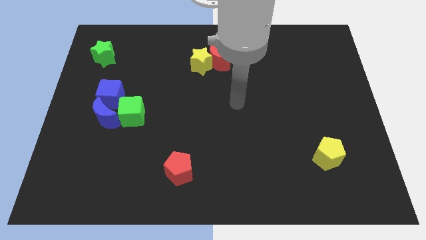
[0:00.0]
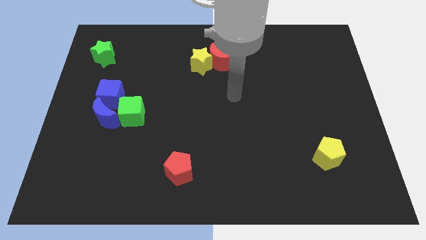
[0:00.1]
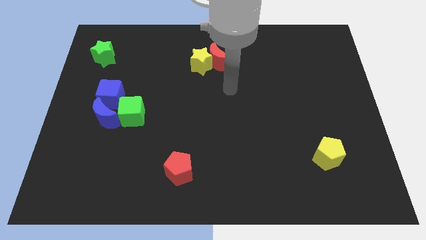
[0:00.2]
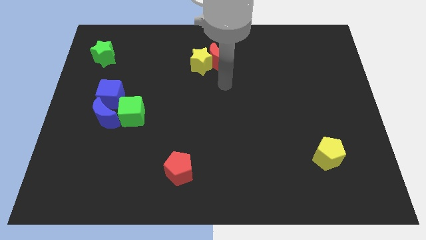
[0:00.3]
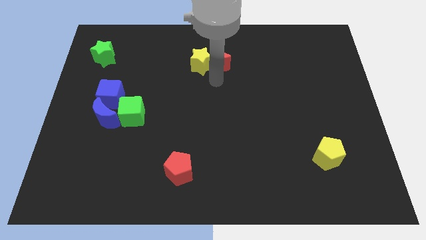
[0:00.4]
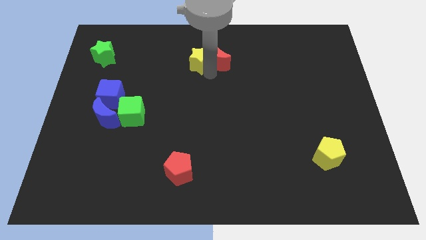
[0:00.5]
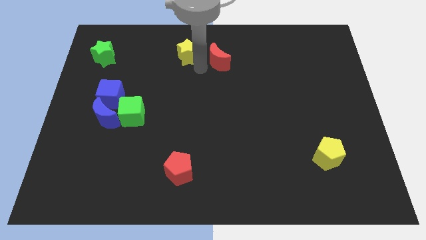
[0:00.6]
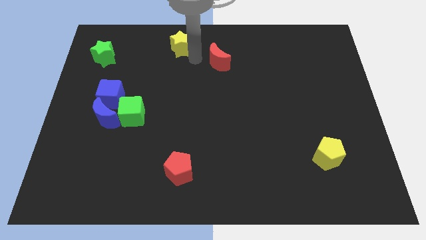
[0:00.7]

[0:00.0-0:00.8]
move the red moon away from the yellow star

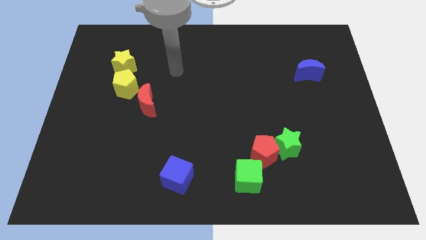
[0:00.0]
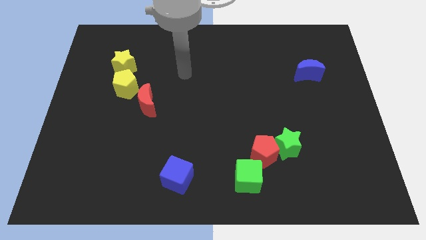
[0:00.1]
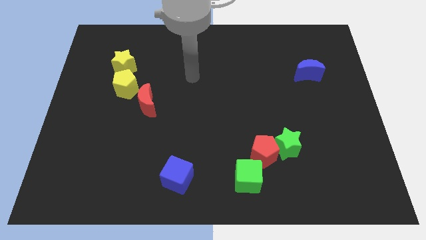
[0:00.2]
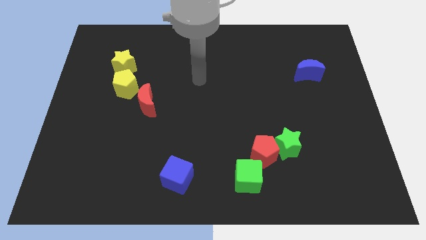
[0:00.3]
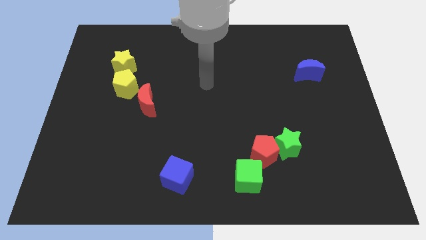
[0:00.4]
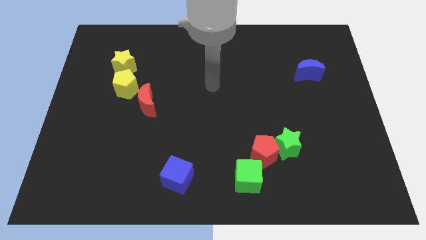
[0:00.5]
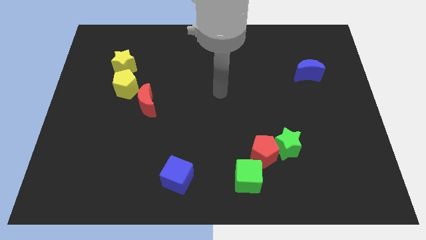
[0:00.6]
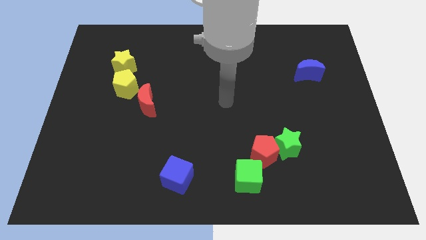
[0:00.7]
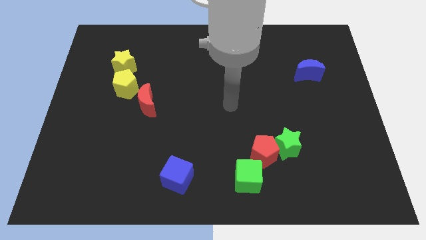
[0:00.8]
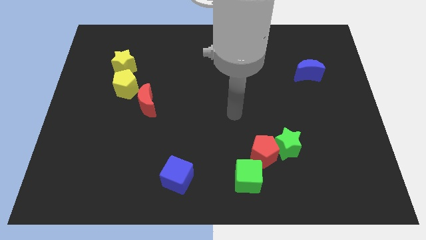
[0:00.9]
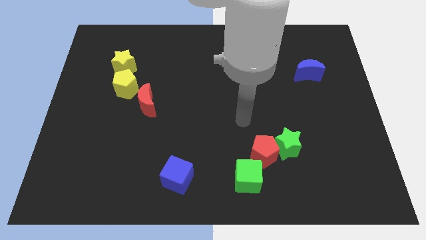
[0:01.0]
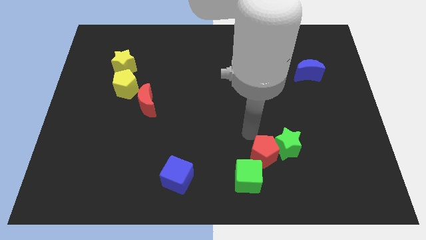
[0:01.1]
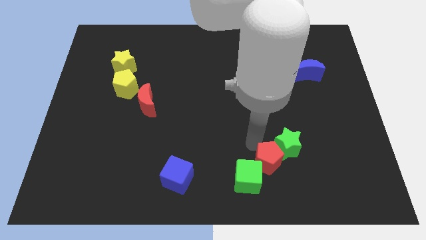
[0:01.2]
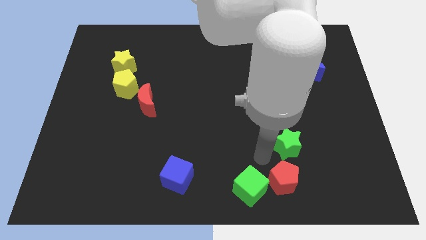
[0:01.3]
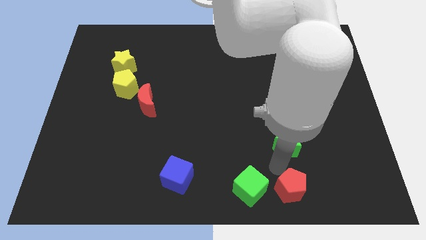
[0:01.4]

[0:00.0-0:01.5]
separate the green star from the red pentagon

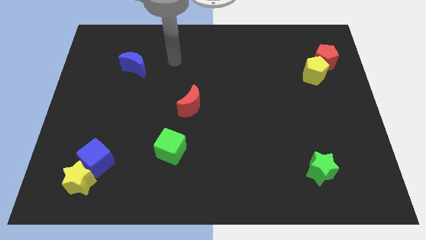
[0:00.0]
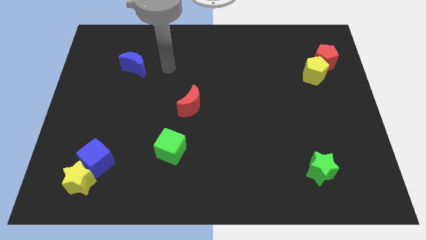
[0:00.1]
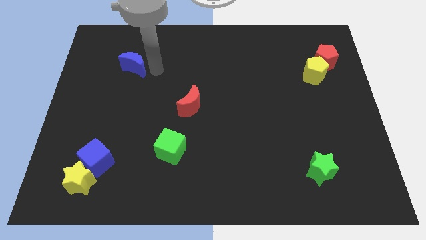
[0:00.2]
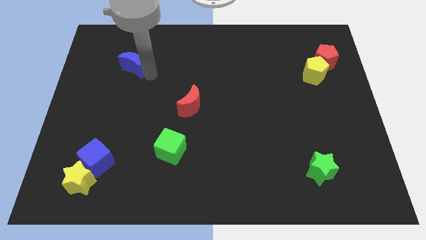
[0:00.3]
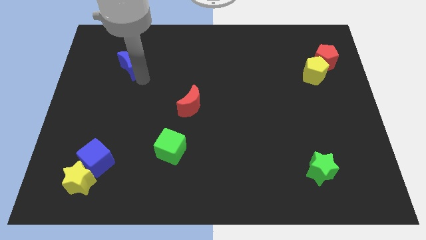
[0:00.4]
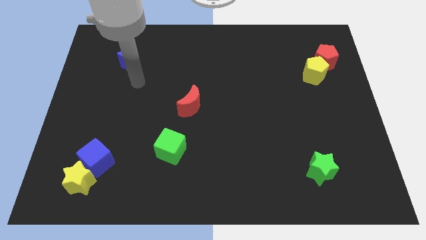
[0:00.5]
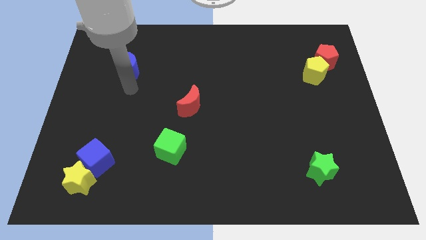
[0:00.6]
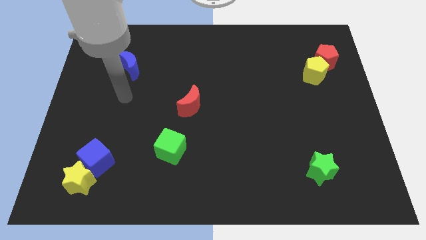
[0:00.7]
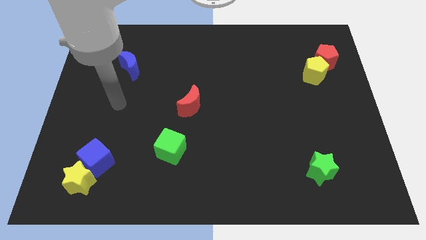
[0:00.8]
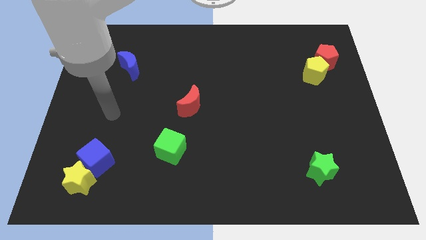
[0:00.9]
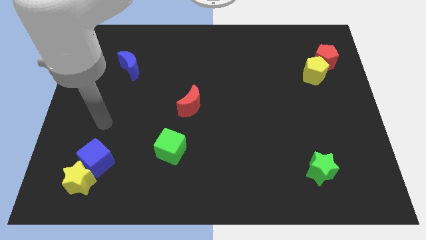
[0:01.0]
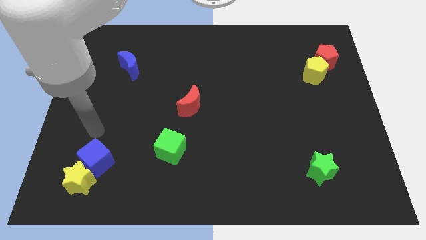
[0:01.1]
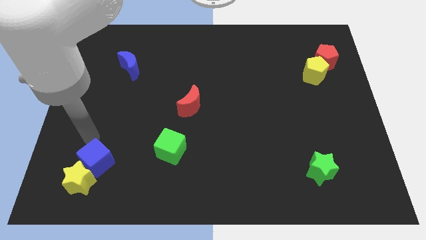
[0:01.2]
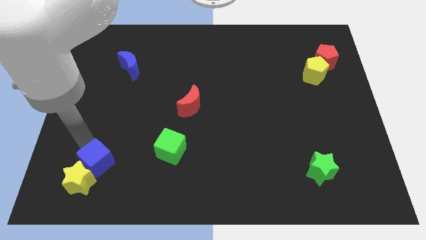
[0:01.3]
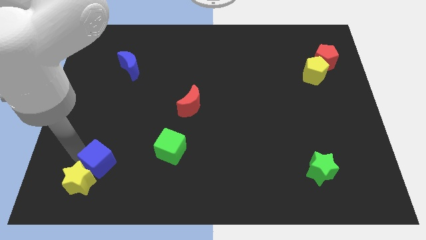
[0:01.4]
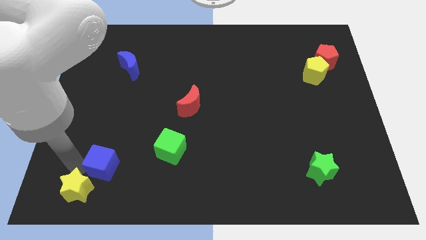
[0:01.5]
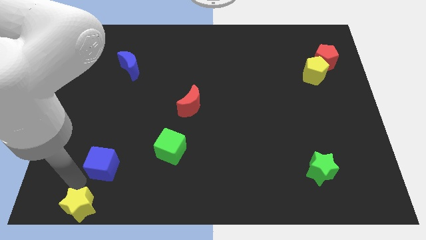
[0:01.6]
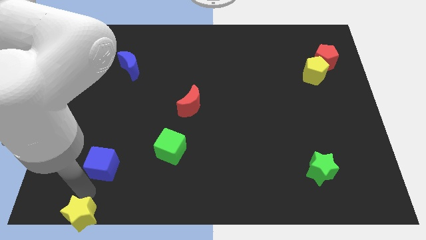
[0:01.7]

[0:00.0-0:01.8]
pull the blue cube apart from the yellow star

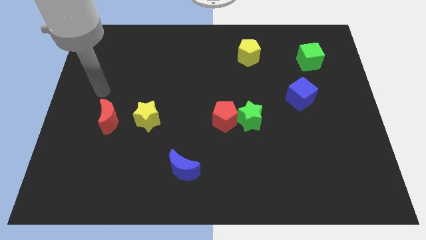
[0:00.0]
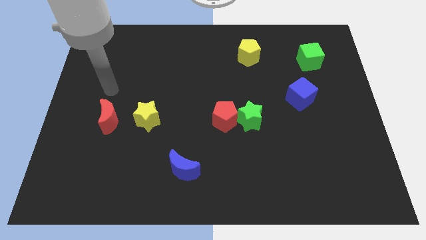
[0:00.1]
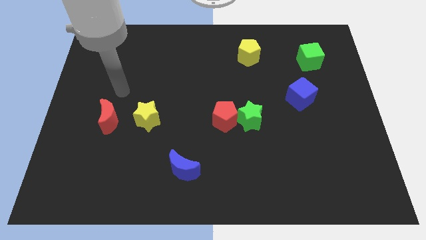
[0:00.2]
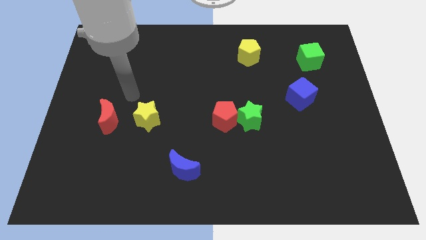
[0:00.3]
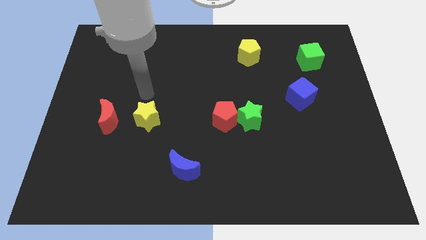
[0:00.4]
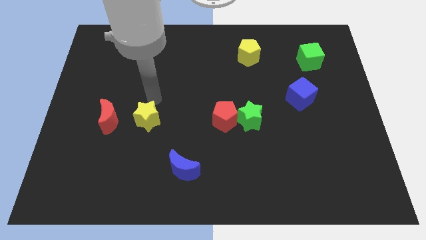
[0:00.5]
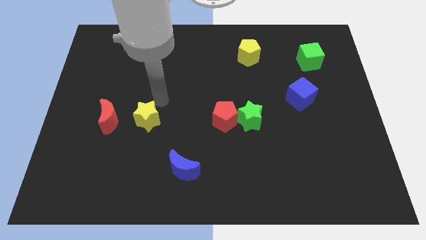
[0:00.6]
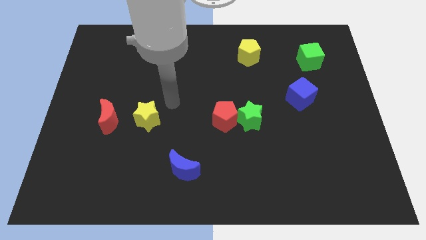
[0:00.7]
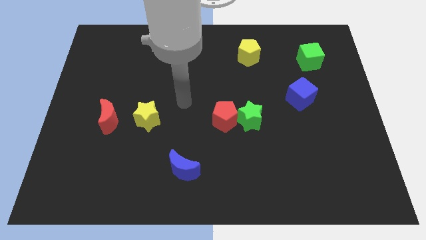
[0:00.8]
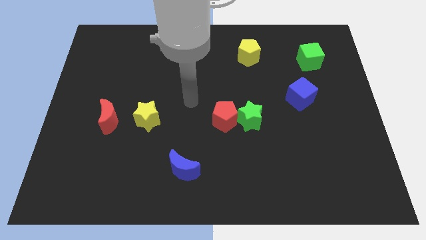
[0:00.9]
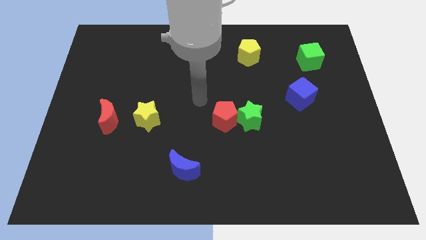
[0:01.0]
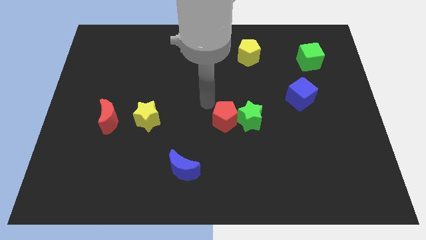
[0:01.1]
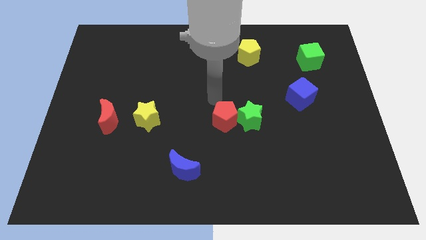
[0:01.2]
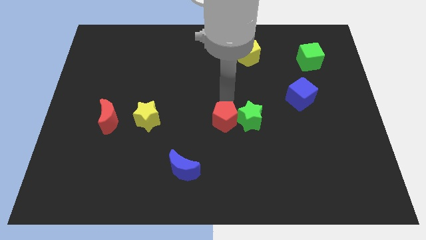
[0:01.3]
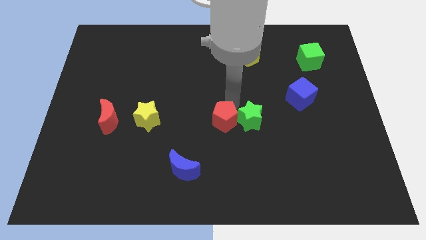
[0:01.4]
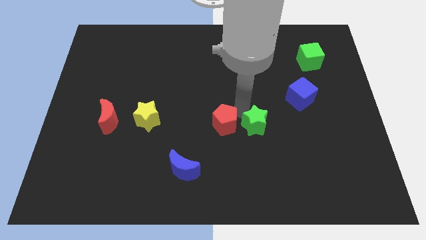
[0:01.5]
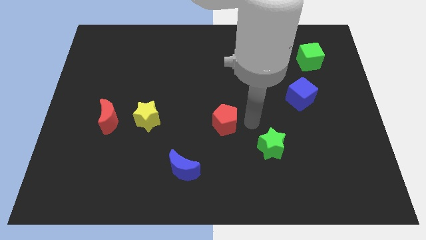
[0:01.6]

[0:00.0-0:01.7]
move the red pentagon away from the green star

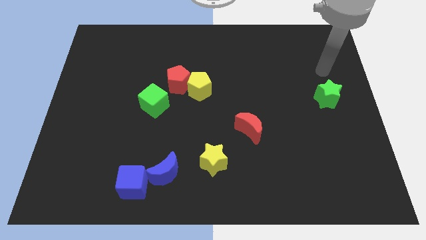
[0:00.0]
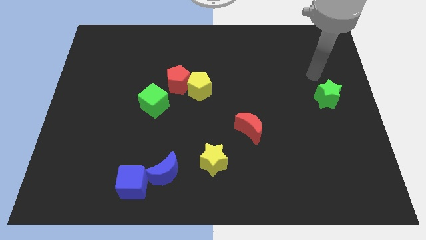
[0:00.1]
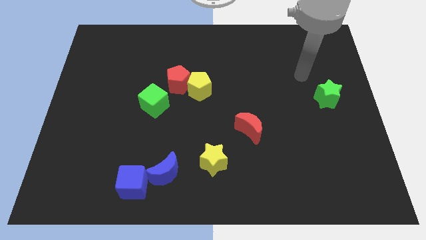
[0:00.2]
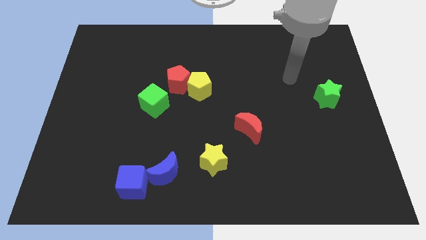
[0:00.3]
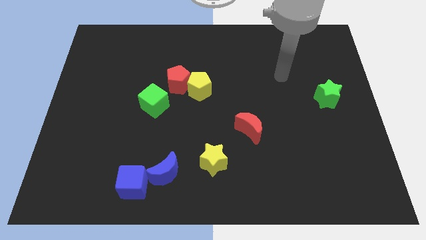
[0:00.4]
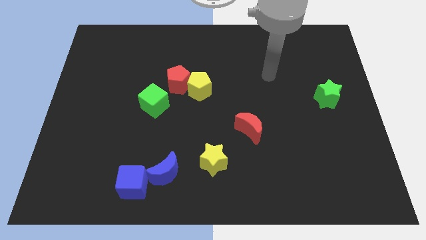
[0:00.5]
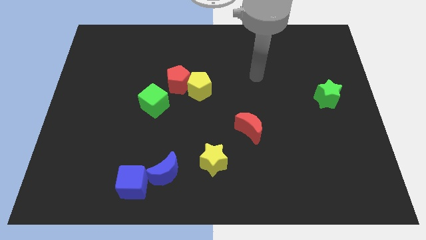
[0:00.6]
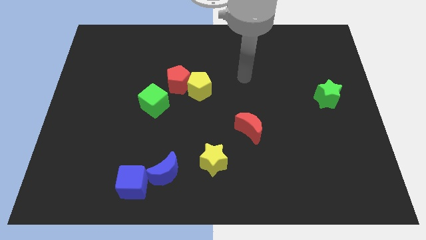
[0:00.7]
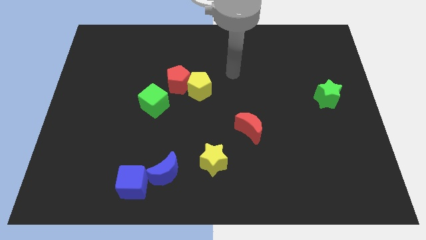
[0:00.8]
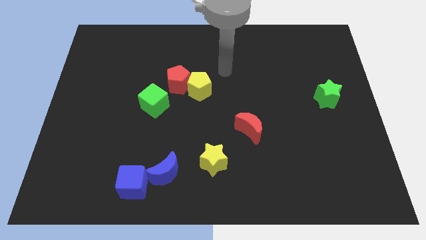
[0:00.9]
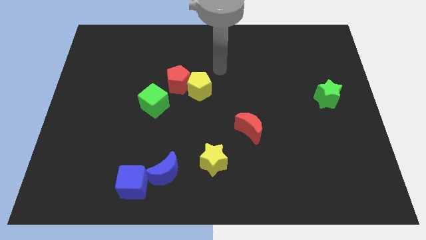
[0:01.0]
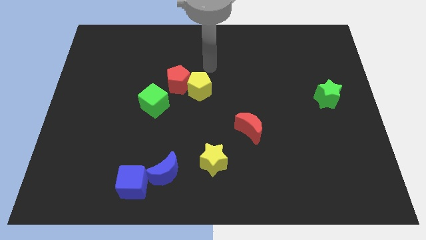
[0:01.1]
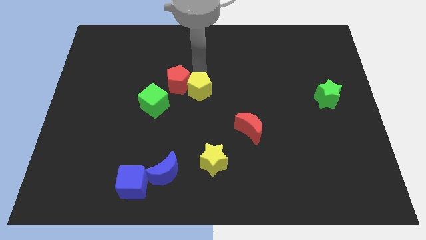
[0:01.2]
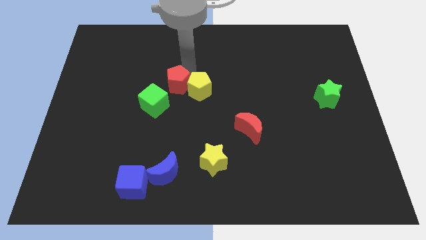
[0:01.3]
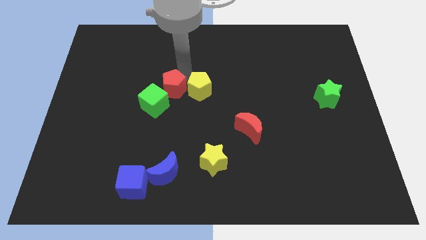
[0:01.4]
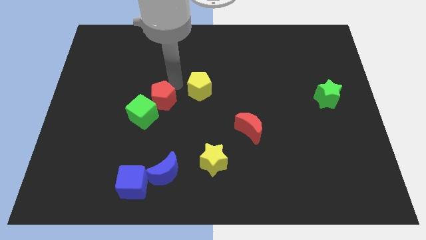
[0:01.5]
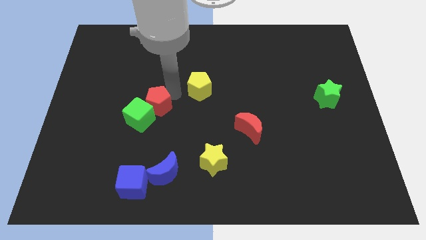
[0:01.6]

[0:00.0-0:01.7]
move the yellow pentagon away from the red pentagon

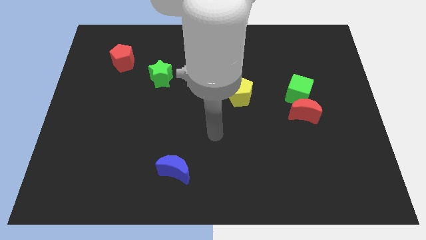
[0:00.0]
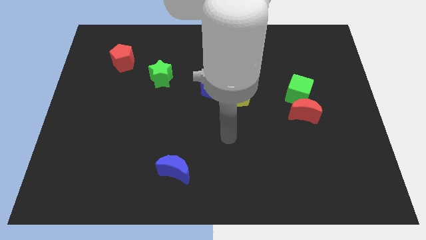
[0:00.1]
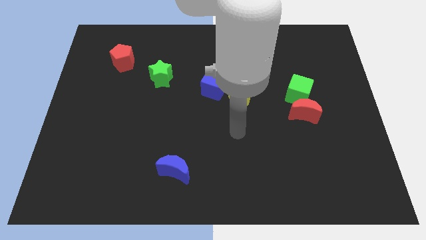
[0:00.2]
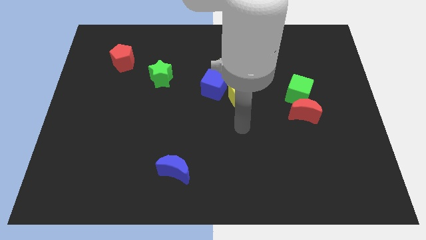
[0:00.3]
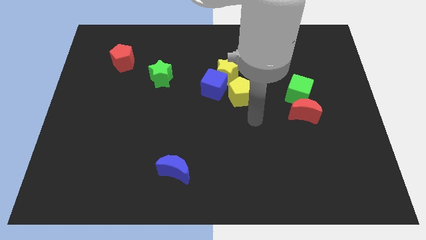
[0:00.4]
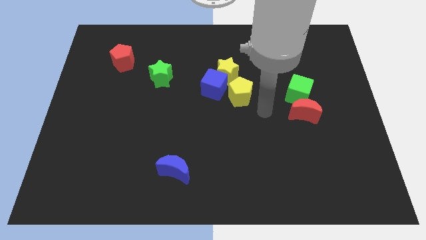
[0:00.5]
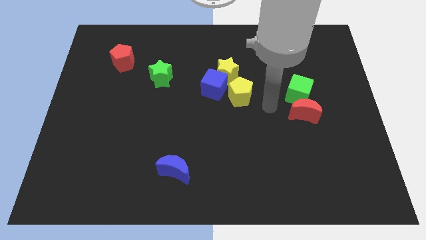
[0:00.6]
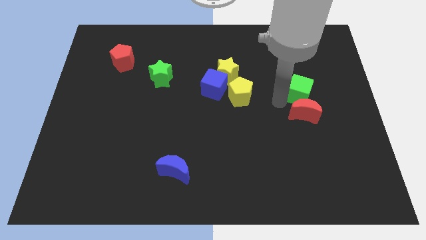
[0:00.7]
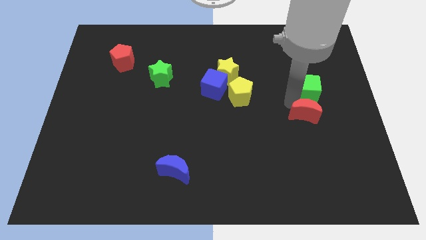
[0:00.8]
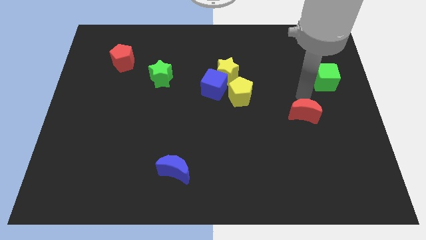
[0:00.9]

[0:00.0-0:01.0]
pull the red moon apart from the green cube

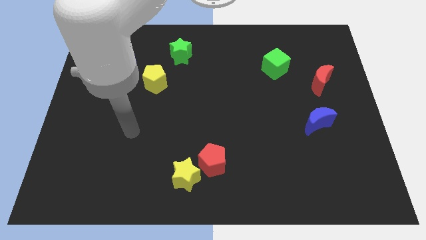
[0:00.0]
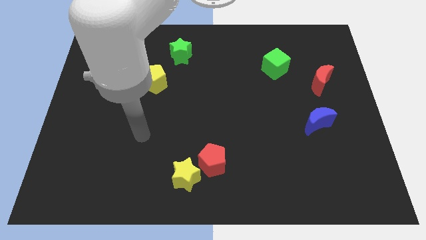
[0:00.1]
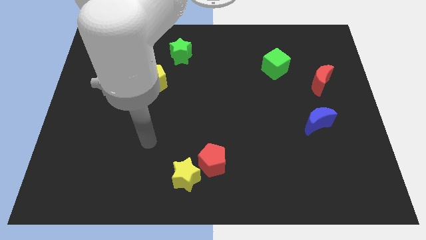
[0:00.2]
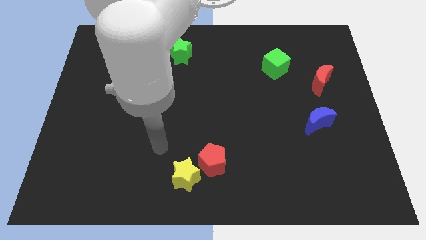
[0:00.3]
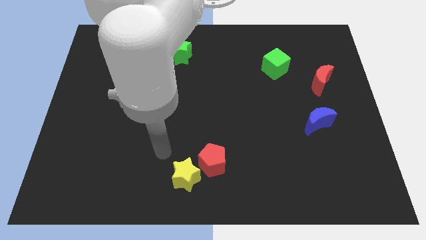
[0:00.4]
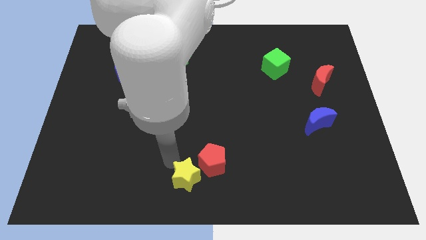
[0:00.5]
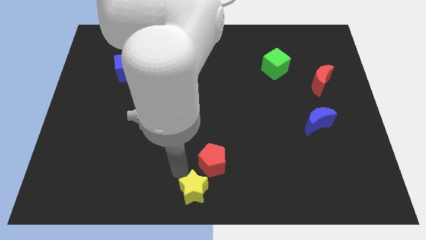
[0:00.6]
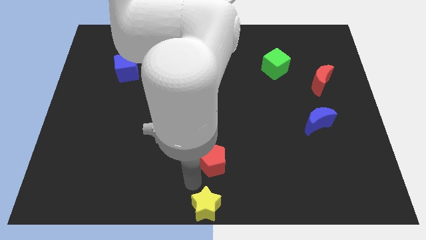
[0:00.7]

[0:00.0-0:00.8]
pull the red pentagon apart from the yellow star
